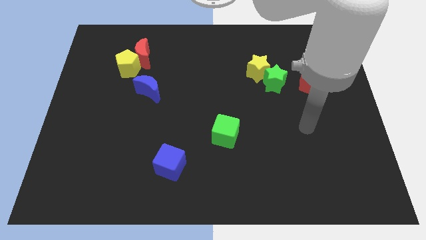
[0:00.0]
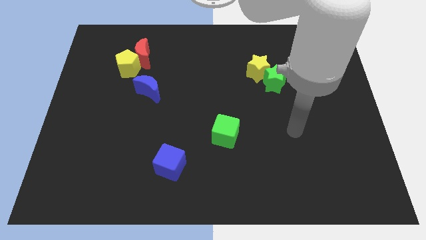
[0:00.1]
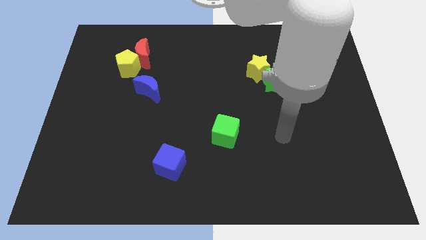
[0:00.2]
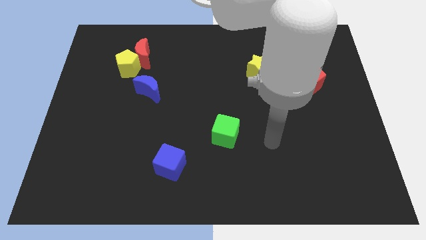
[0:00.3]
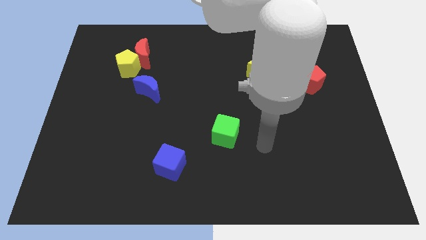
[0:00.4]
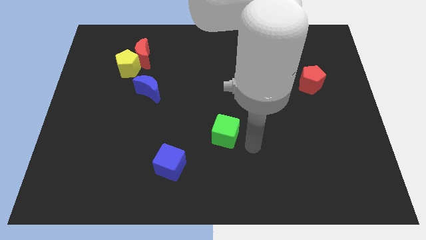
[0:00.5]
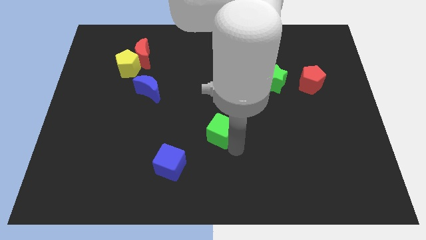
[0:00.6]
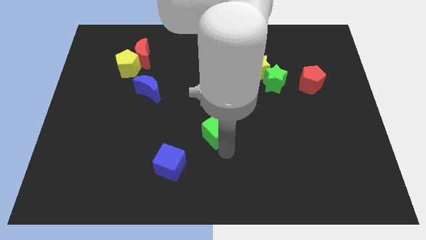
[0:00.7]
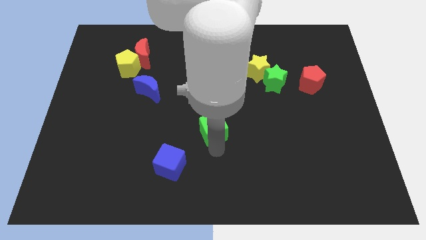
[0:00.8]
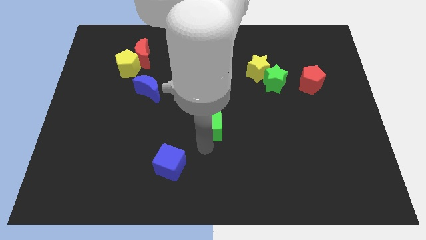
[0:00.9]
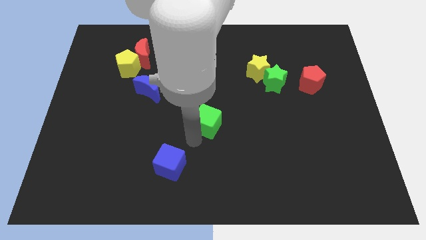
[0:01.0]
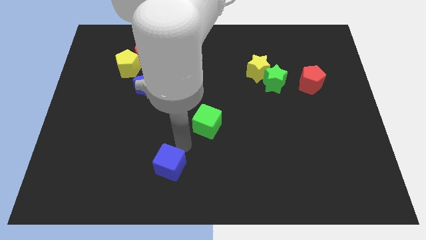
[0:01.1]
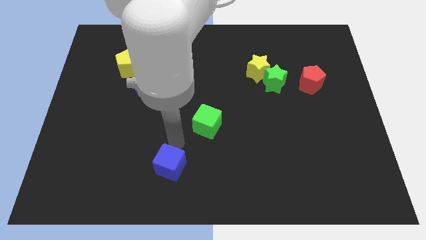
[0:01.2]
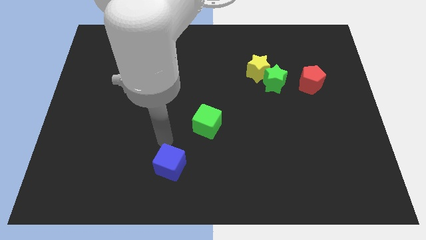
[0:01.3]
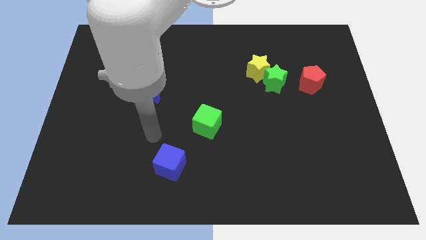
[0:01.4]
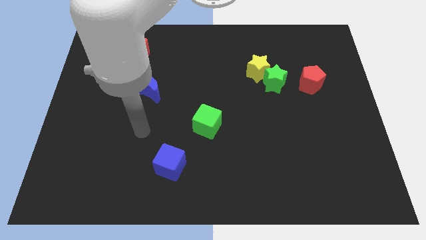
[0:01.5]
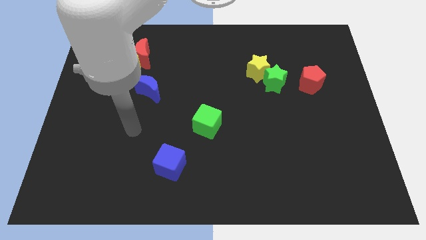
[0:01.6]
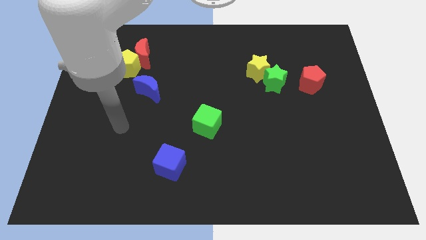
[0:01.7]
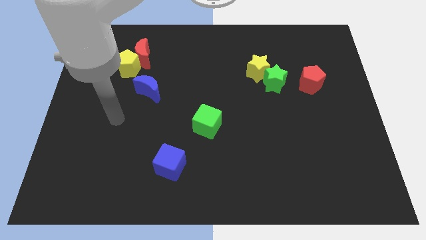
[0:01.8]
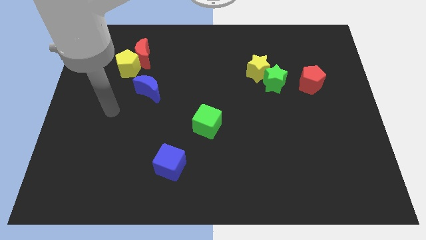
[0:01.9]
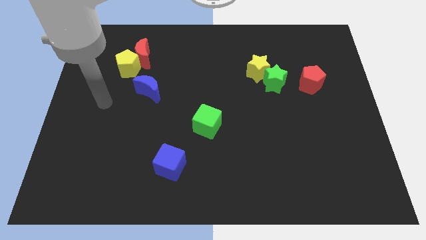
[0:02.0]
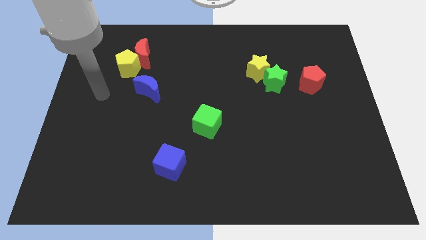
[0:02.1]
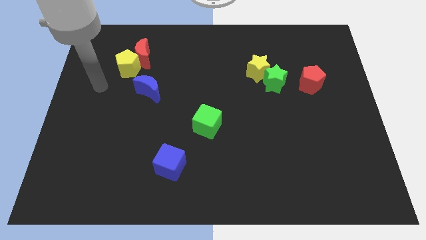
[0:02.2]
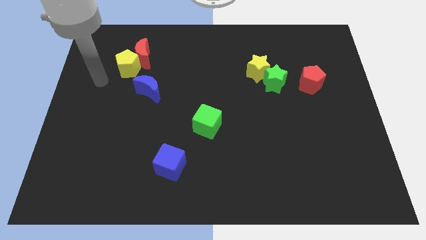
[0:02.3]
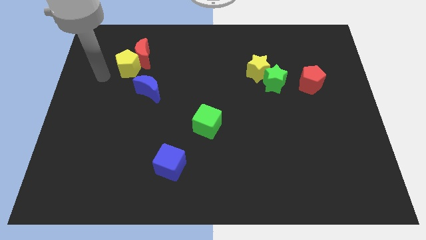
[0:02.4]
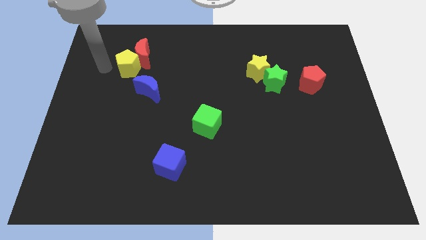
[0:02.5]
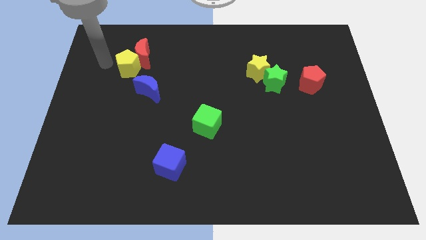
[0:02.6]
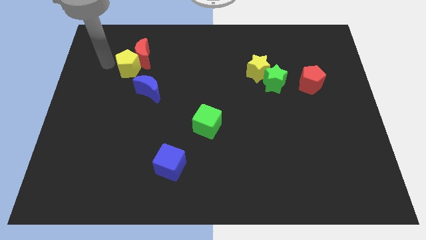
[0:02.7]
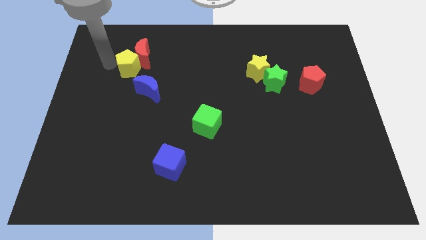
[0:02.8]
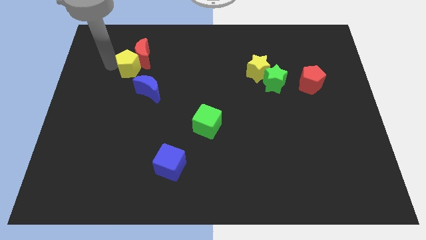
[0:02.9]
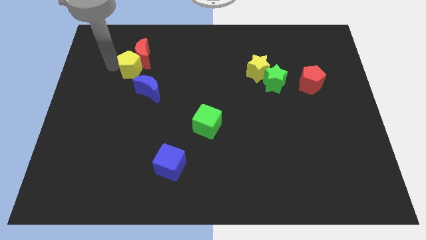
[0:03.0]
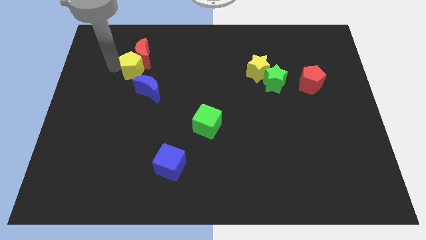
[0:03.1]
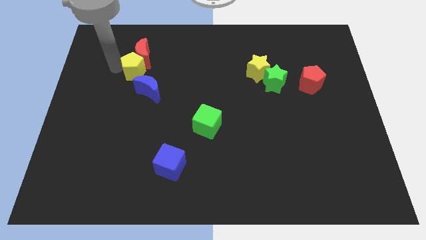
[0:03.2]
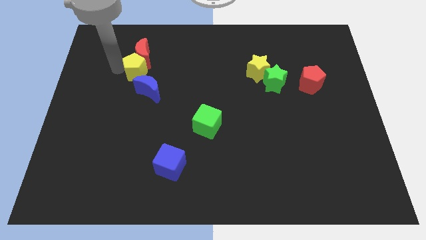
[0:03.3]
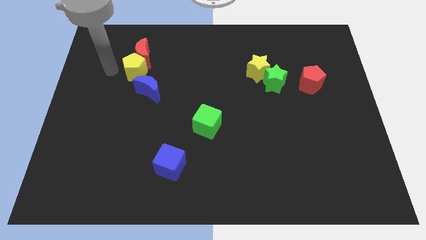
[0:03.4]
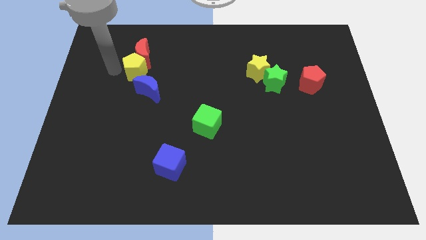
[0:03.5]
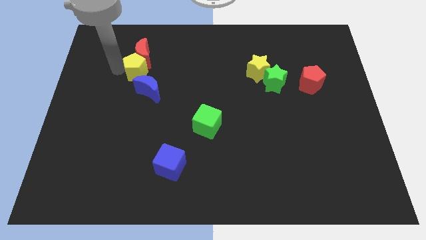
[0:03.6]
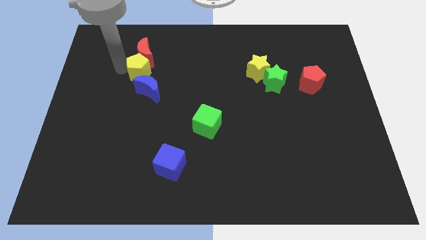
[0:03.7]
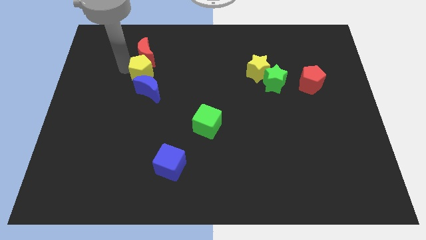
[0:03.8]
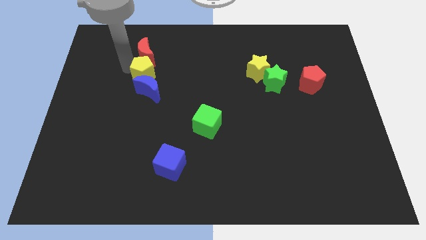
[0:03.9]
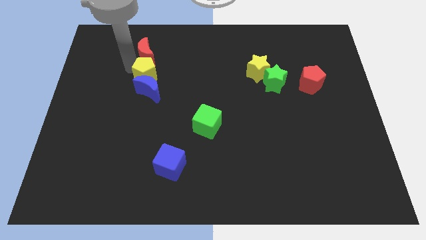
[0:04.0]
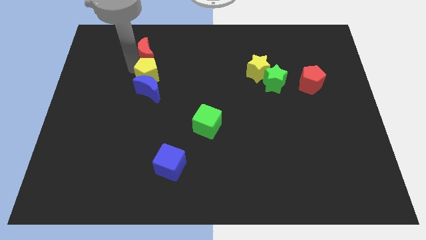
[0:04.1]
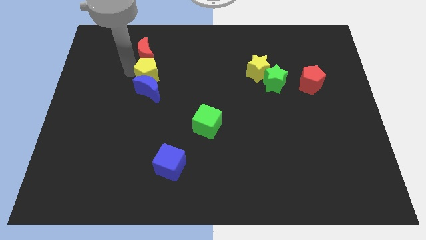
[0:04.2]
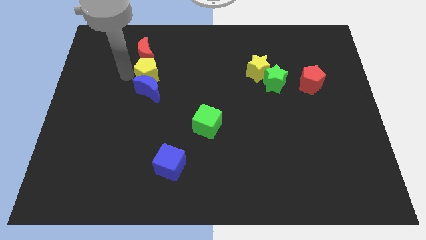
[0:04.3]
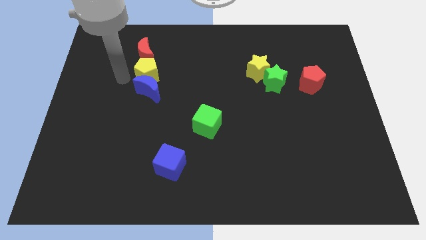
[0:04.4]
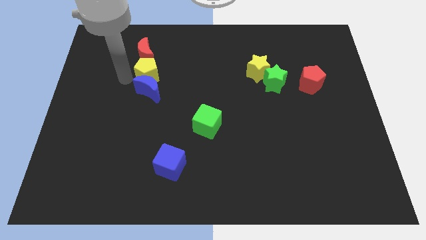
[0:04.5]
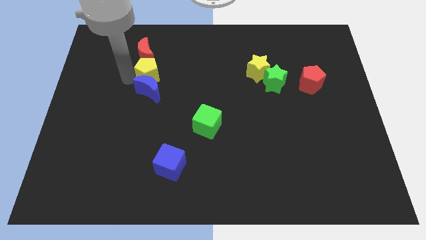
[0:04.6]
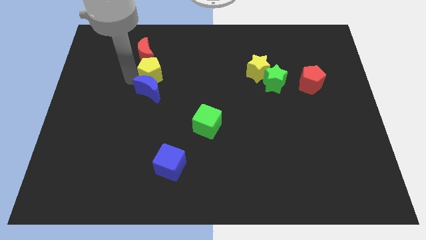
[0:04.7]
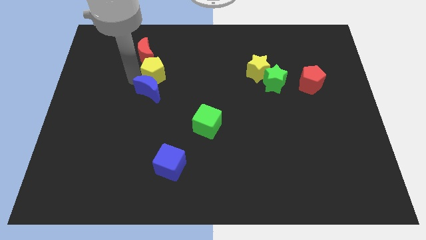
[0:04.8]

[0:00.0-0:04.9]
move the yellow pentagon right a bit

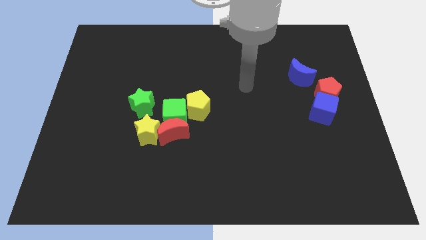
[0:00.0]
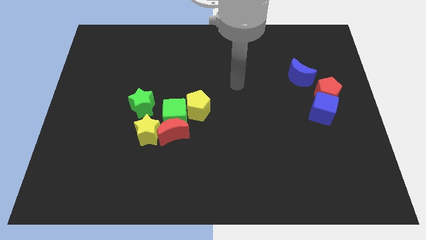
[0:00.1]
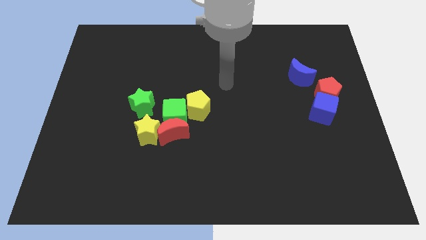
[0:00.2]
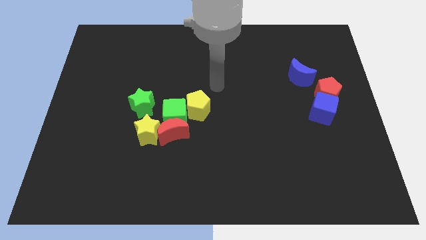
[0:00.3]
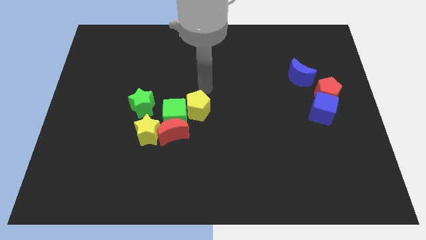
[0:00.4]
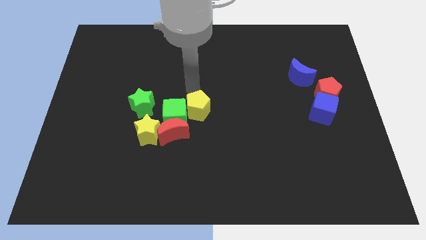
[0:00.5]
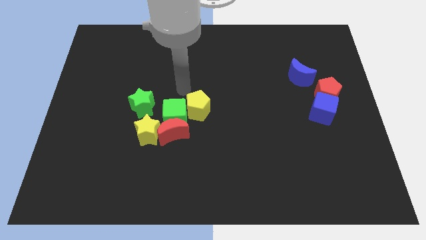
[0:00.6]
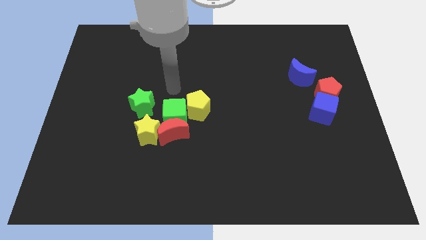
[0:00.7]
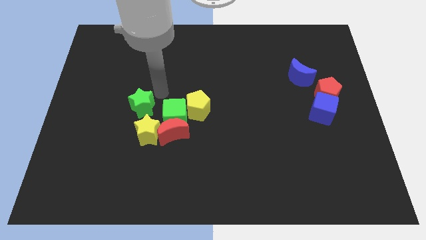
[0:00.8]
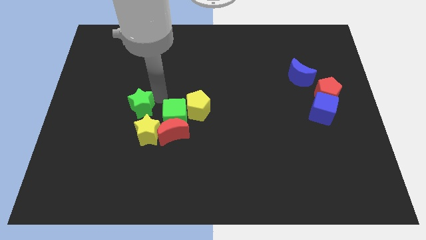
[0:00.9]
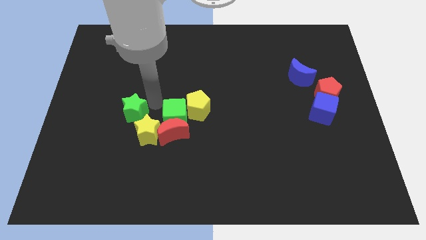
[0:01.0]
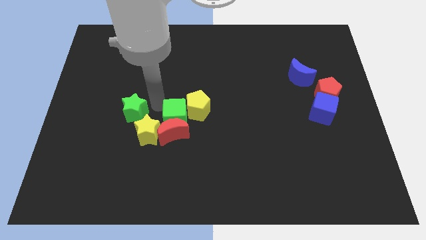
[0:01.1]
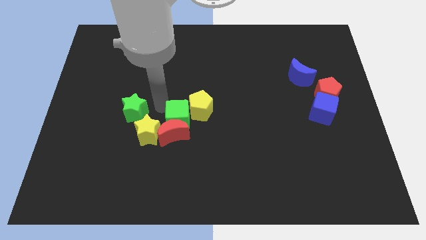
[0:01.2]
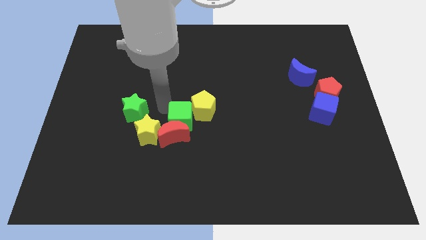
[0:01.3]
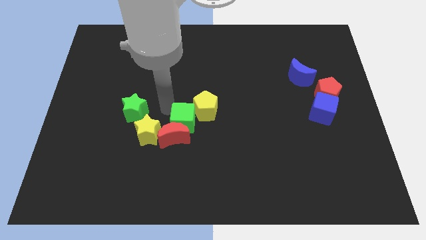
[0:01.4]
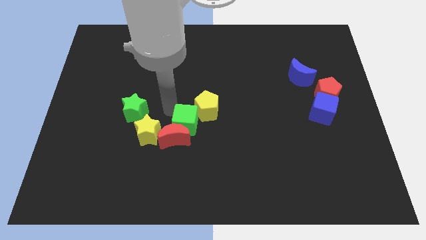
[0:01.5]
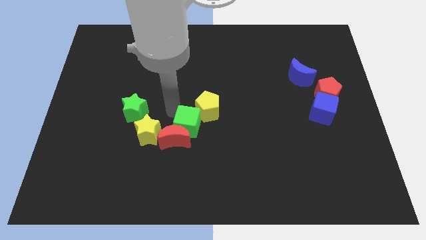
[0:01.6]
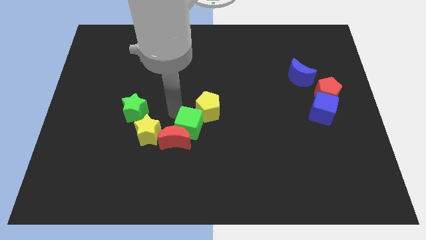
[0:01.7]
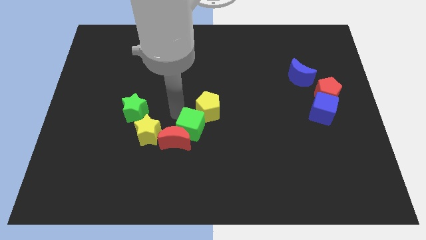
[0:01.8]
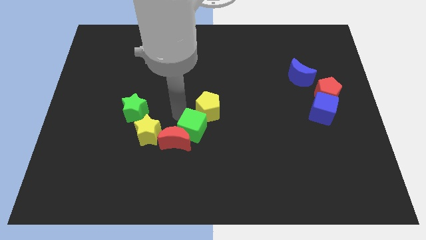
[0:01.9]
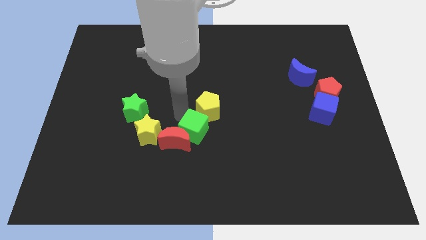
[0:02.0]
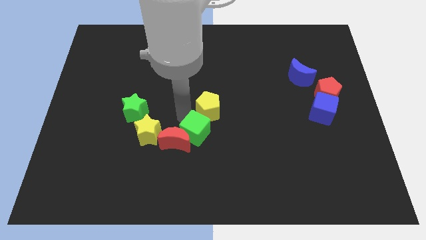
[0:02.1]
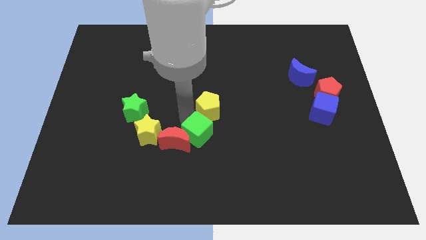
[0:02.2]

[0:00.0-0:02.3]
move the green cube downwards and right diagonally a little

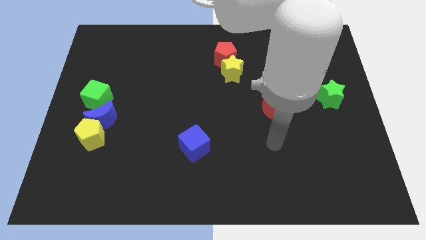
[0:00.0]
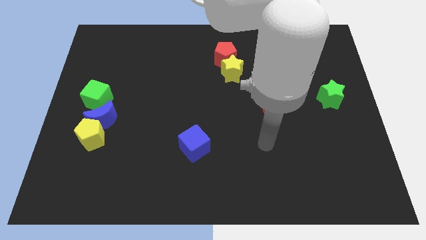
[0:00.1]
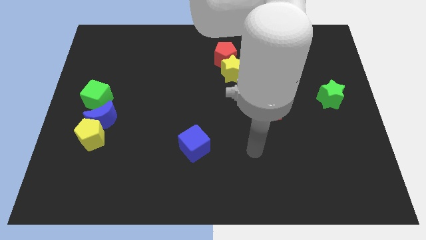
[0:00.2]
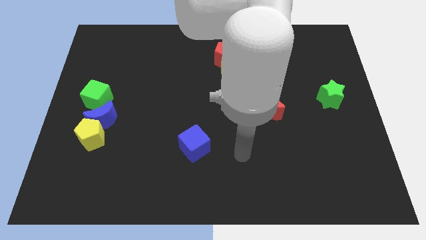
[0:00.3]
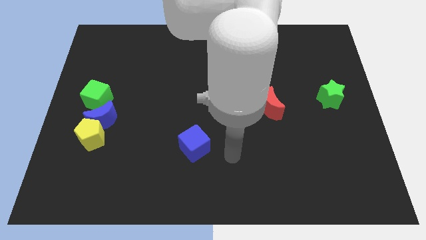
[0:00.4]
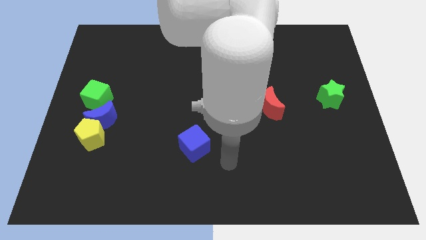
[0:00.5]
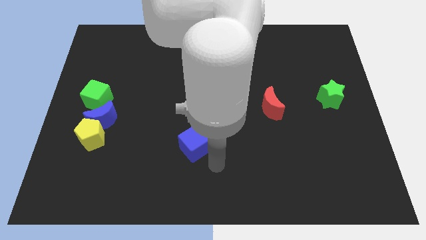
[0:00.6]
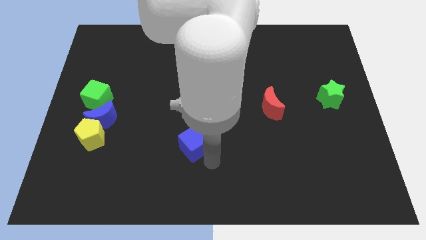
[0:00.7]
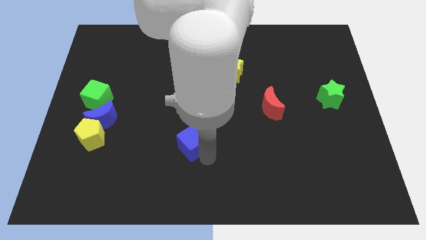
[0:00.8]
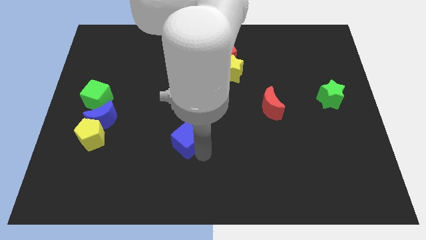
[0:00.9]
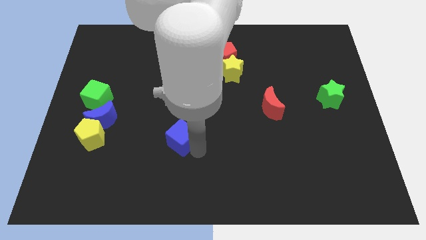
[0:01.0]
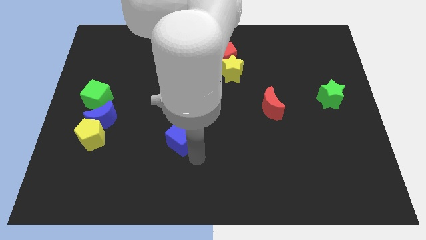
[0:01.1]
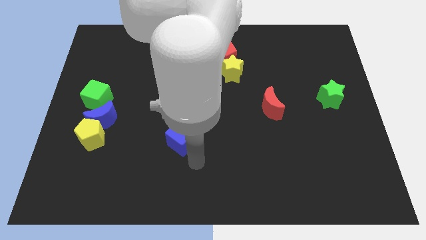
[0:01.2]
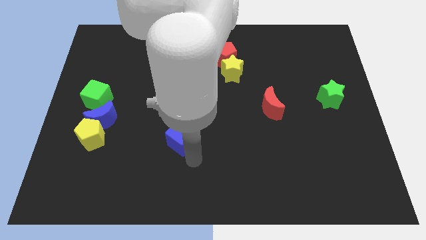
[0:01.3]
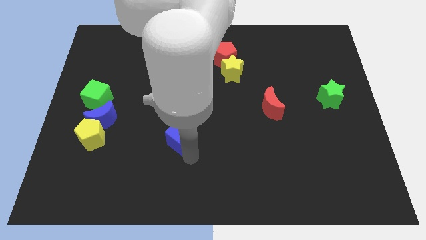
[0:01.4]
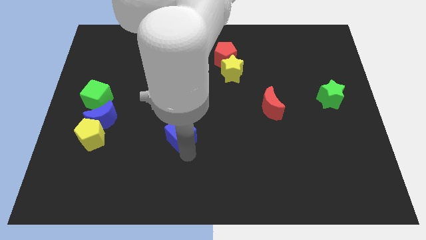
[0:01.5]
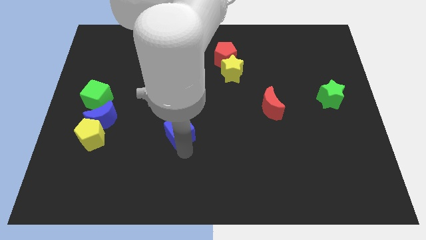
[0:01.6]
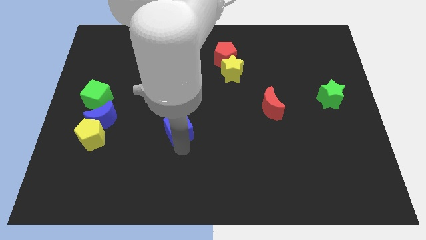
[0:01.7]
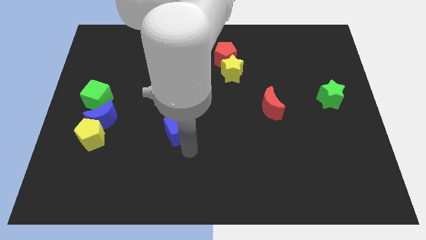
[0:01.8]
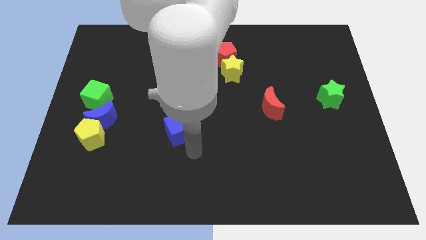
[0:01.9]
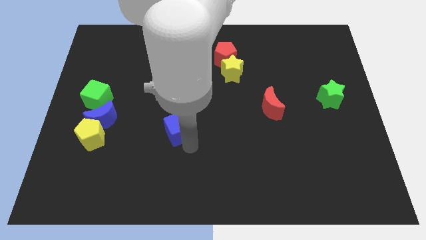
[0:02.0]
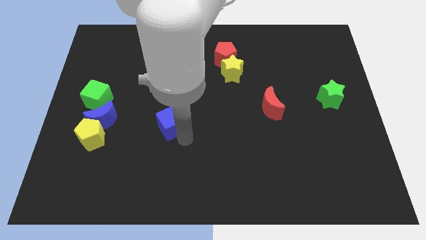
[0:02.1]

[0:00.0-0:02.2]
slightly push the blue cube upwards and to the left
